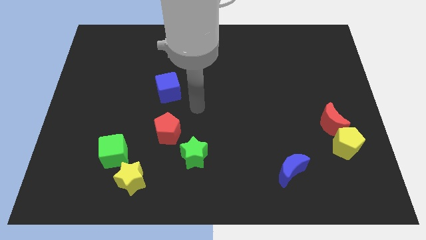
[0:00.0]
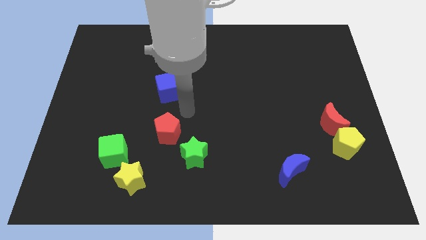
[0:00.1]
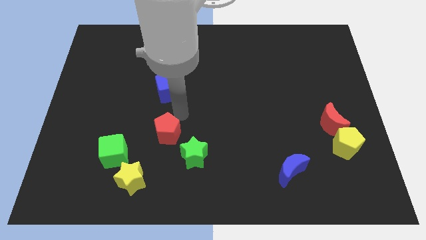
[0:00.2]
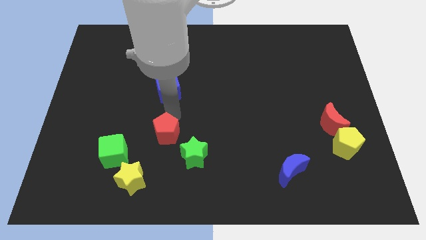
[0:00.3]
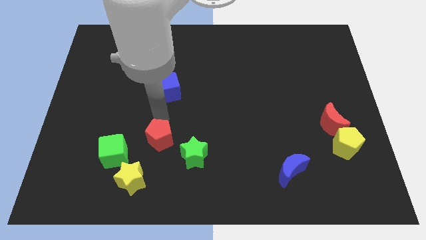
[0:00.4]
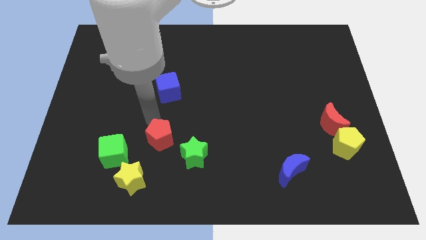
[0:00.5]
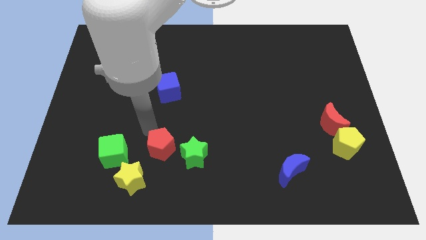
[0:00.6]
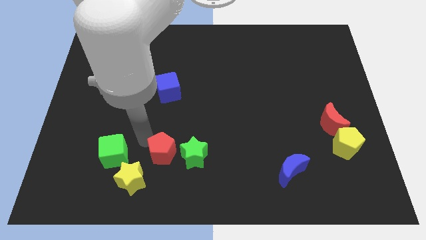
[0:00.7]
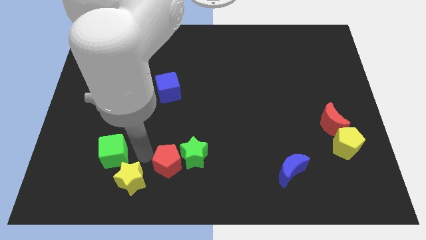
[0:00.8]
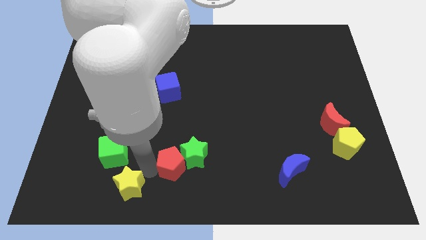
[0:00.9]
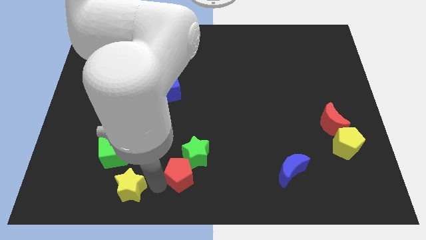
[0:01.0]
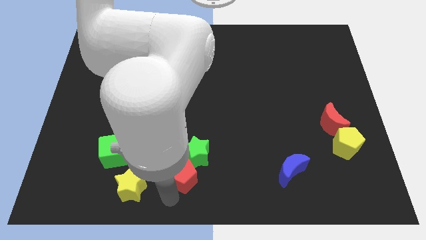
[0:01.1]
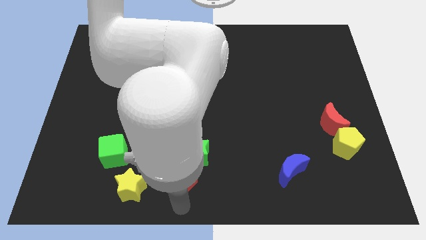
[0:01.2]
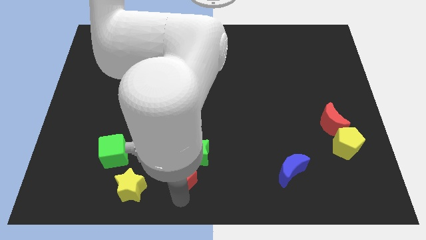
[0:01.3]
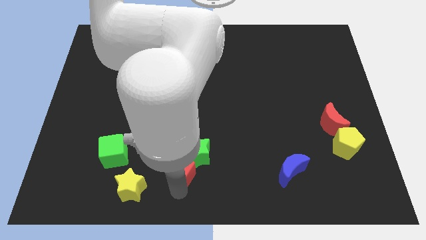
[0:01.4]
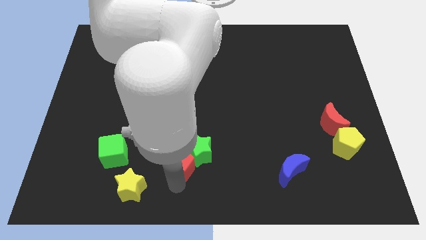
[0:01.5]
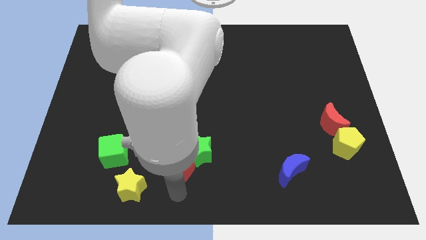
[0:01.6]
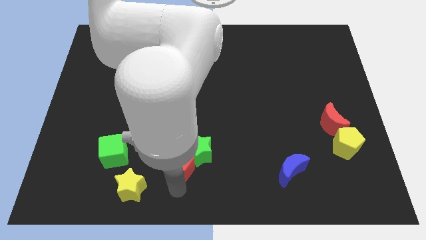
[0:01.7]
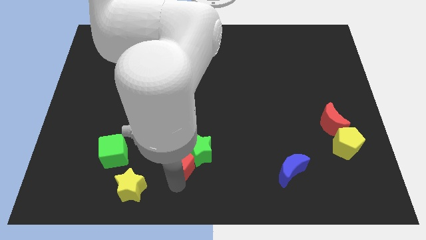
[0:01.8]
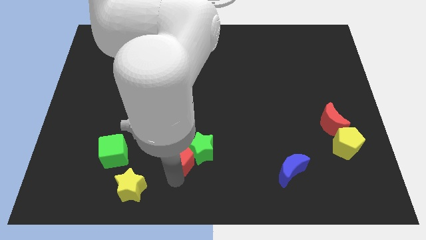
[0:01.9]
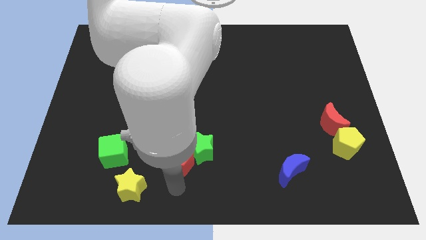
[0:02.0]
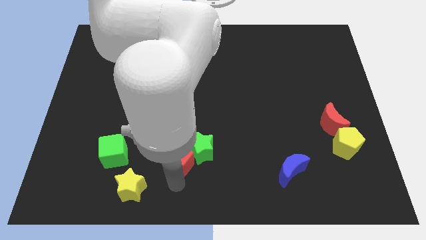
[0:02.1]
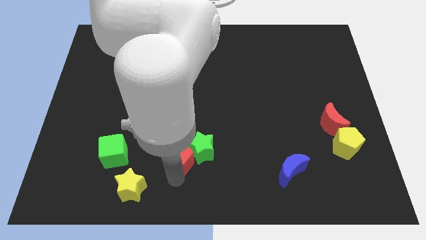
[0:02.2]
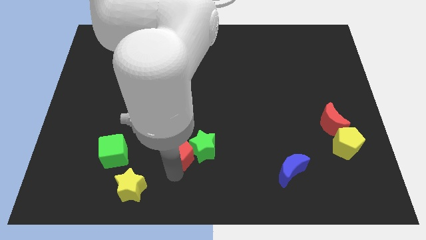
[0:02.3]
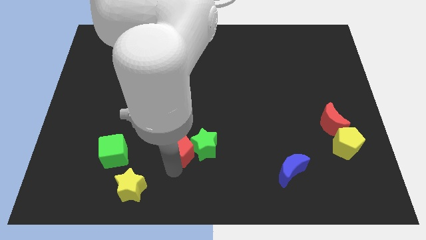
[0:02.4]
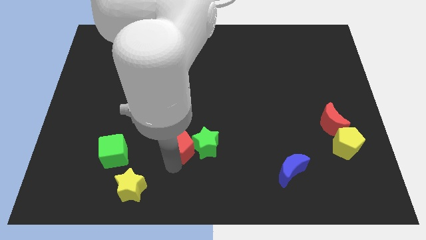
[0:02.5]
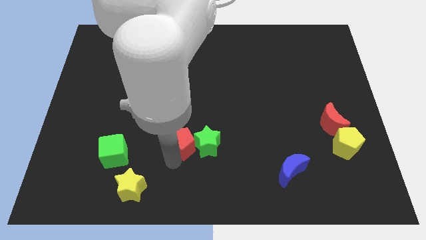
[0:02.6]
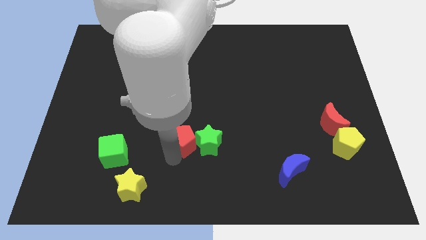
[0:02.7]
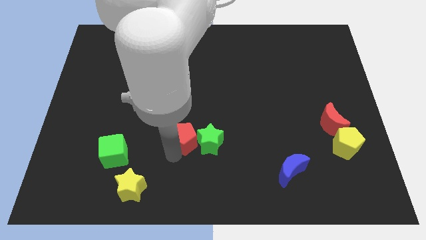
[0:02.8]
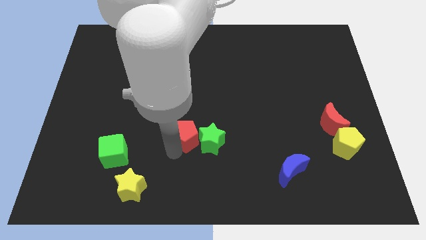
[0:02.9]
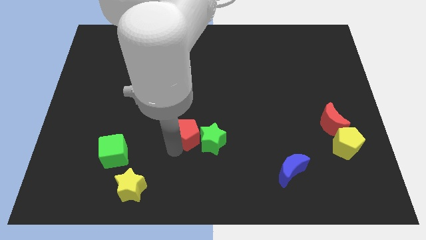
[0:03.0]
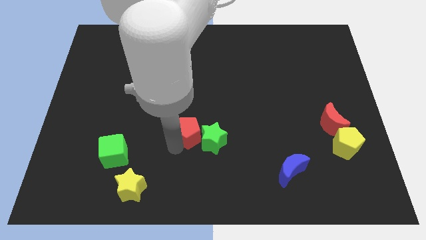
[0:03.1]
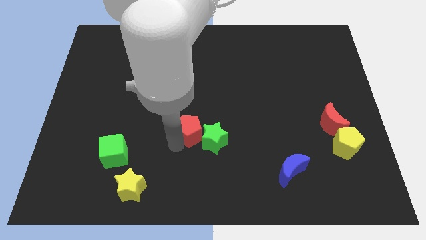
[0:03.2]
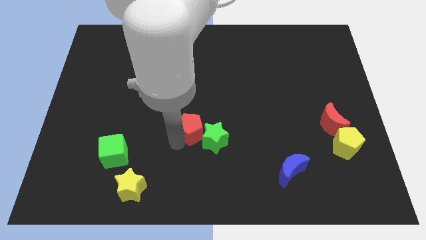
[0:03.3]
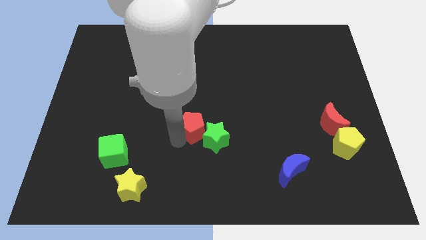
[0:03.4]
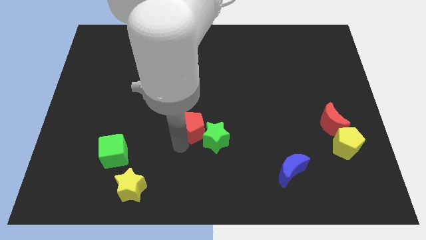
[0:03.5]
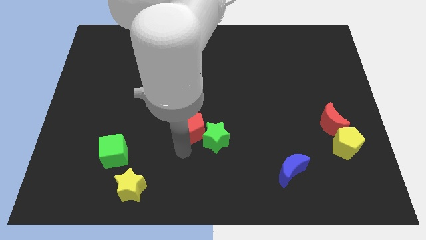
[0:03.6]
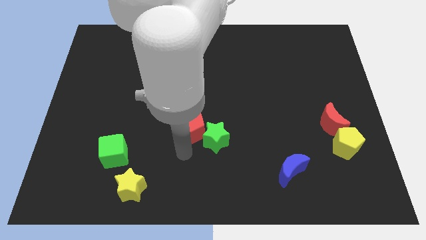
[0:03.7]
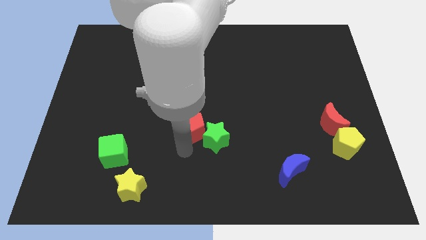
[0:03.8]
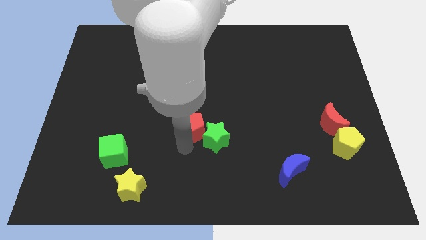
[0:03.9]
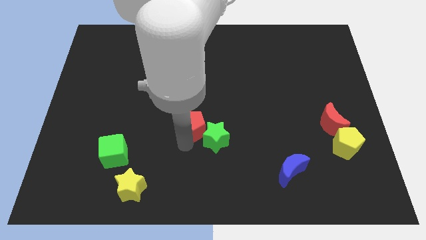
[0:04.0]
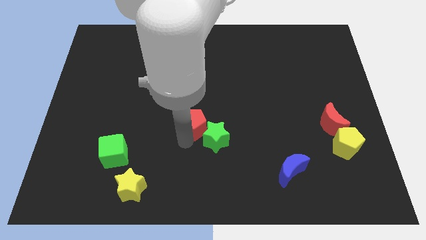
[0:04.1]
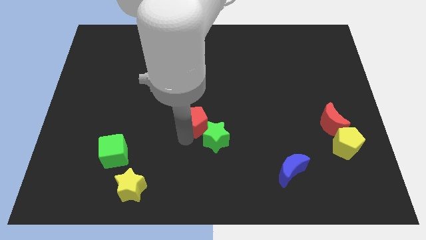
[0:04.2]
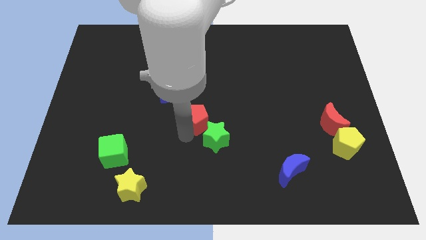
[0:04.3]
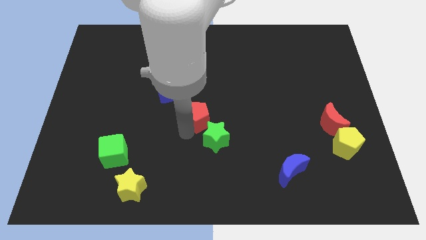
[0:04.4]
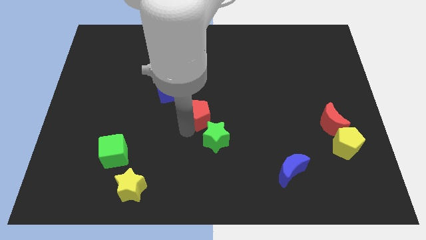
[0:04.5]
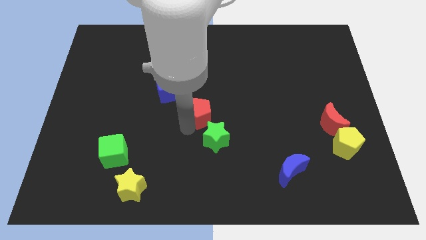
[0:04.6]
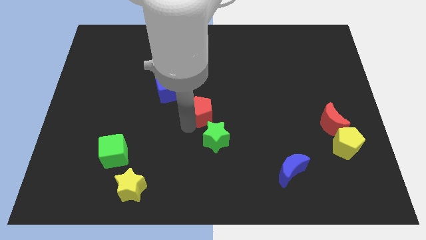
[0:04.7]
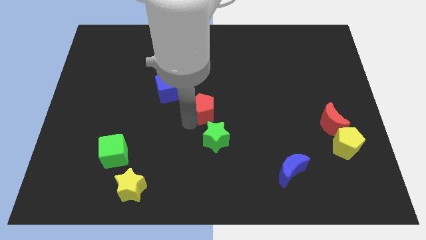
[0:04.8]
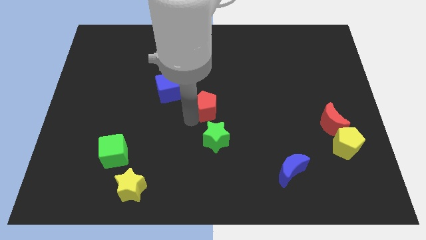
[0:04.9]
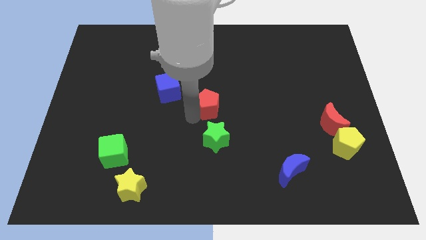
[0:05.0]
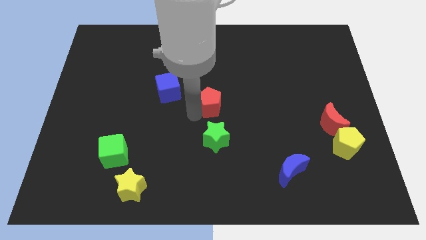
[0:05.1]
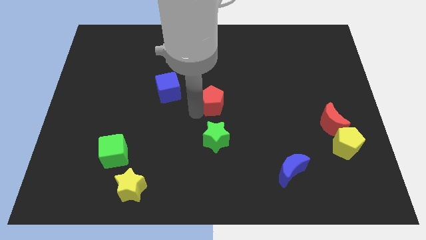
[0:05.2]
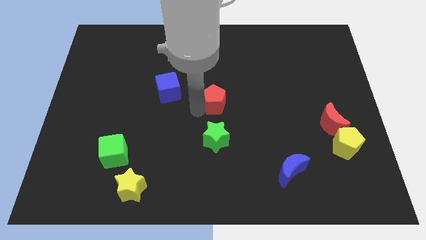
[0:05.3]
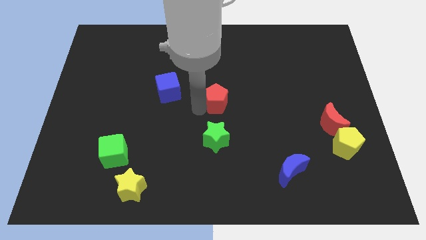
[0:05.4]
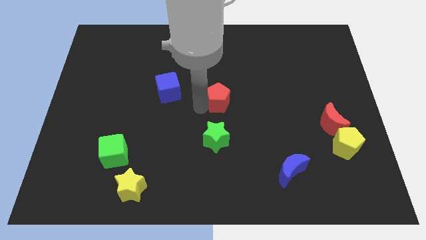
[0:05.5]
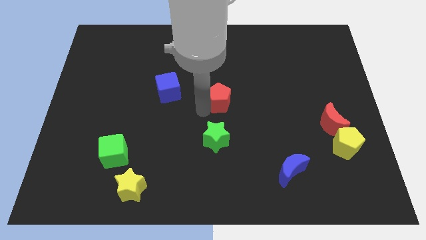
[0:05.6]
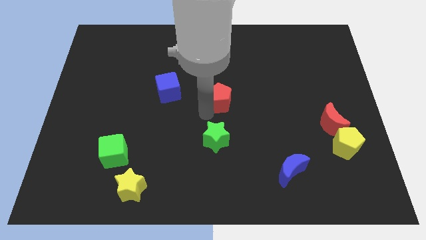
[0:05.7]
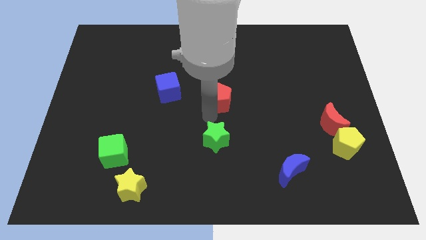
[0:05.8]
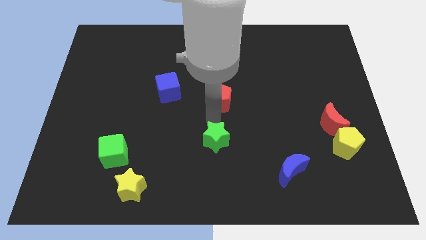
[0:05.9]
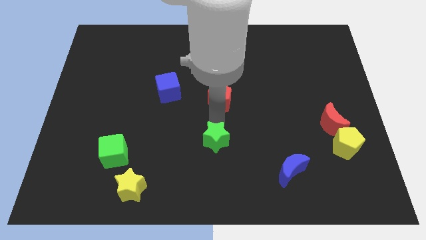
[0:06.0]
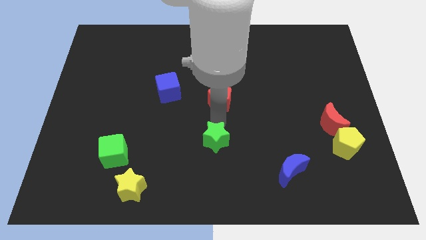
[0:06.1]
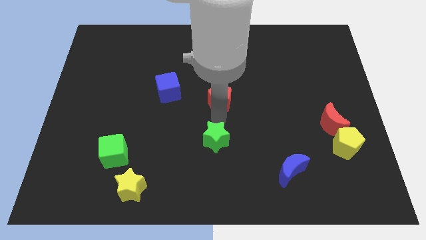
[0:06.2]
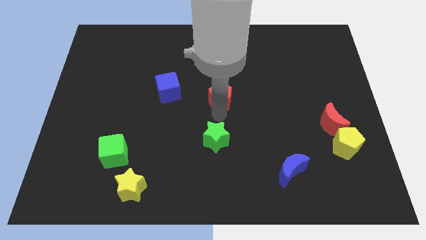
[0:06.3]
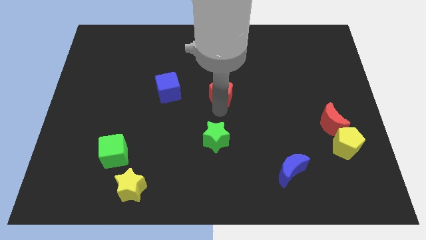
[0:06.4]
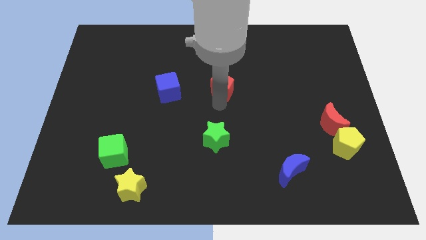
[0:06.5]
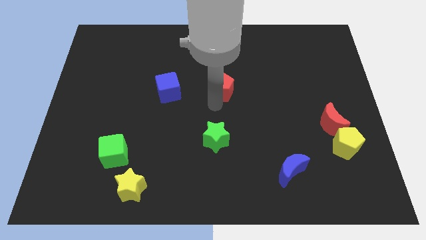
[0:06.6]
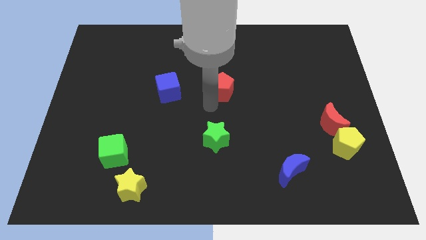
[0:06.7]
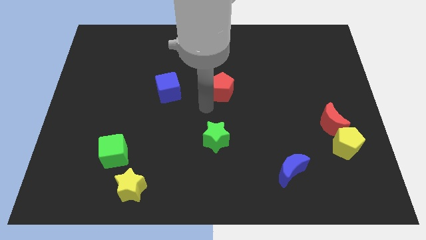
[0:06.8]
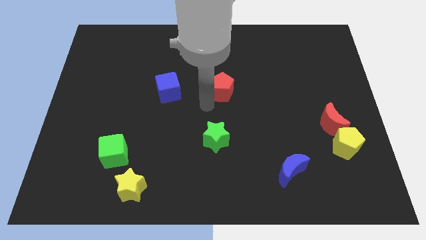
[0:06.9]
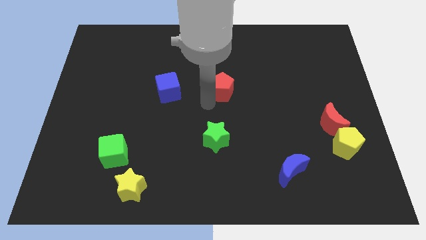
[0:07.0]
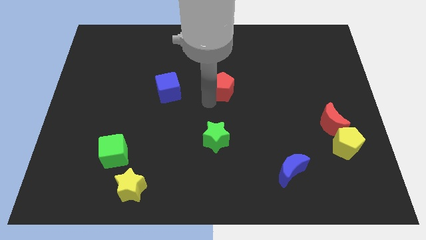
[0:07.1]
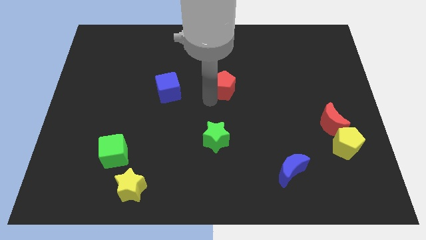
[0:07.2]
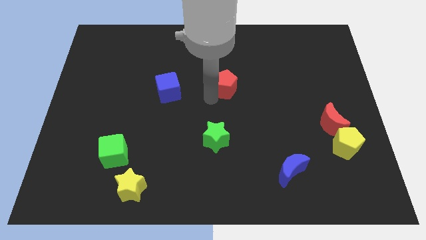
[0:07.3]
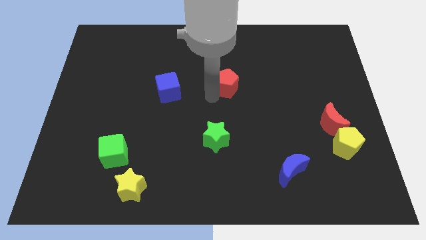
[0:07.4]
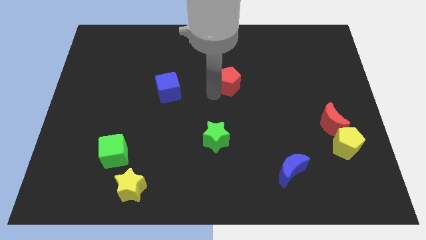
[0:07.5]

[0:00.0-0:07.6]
move the red pentagon upwards and then right
